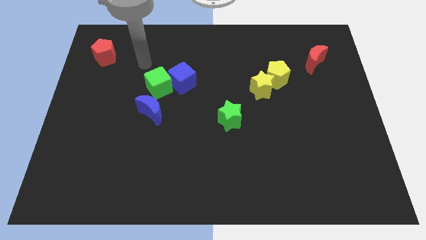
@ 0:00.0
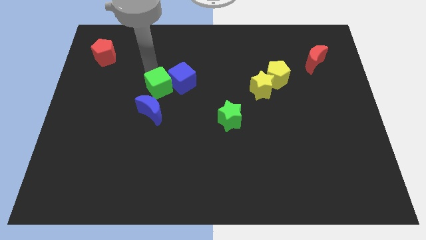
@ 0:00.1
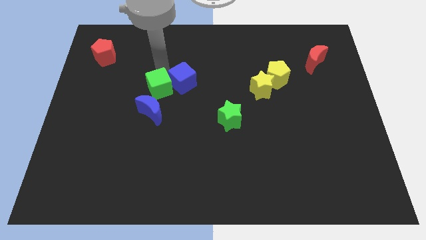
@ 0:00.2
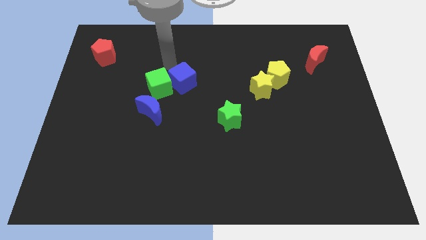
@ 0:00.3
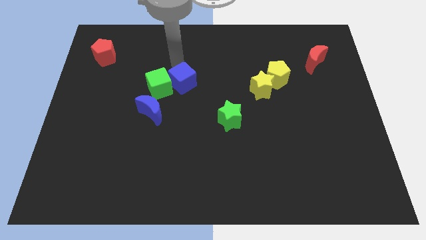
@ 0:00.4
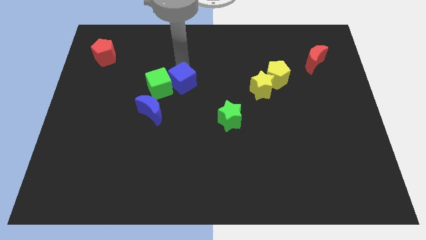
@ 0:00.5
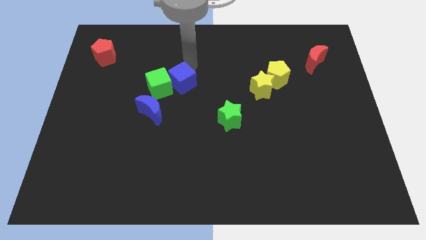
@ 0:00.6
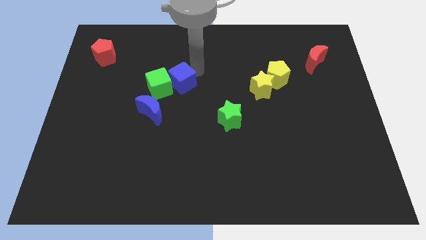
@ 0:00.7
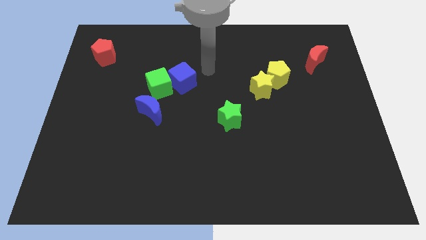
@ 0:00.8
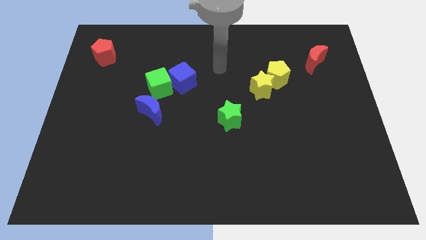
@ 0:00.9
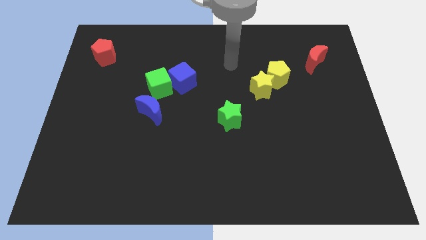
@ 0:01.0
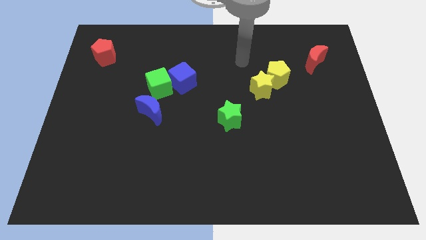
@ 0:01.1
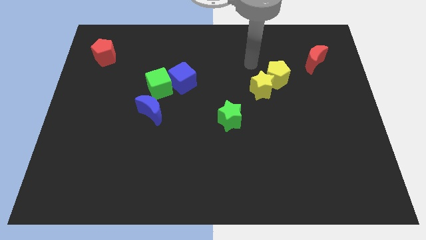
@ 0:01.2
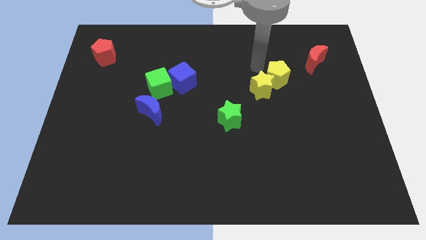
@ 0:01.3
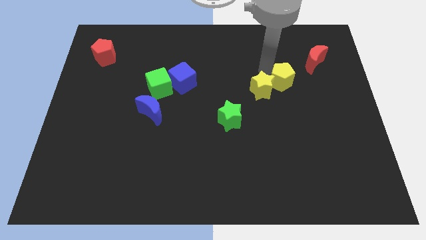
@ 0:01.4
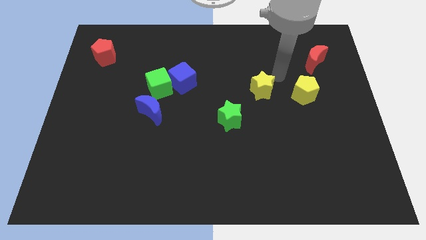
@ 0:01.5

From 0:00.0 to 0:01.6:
move the yellow star away from the yellow pentagon

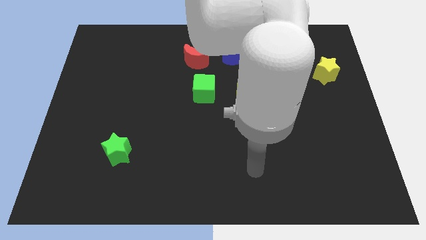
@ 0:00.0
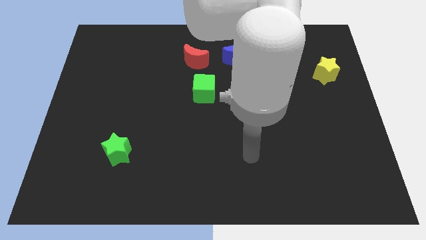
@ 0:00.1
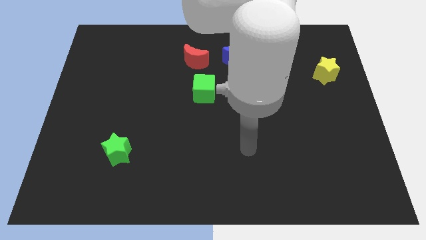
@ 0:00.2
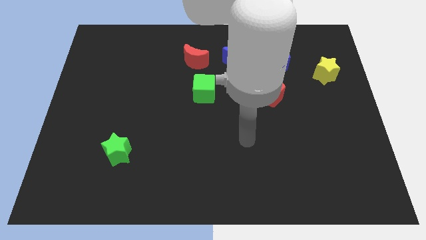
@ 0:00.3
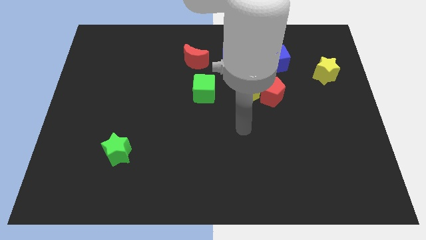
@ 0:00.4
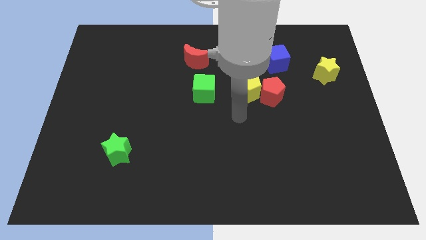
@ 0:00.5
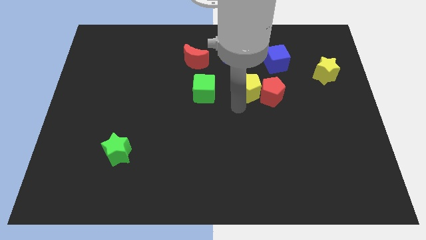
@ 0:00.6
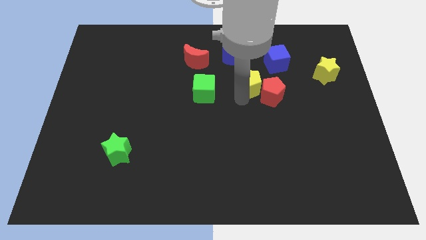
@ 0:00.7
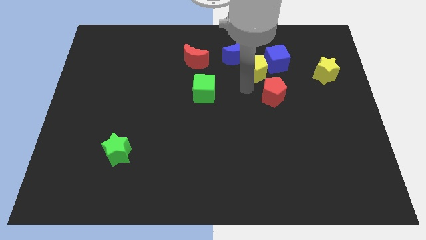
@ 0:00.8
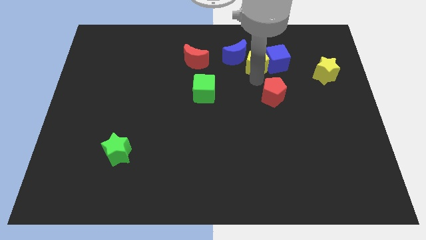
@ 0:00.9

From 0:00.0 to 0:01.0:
pull the red pentagon apart from the yellow pentagon

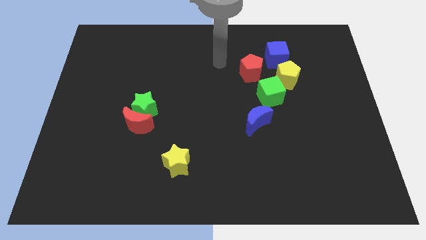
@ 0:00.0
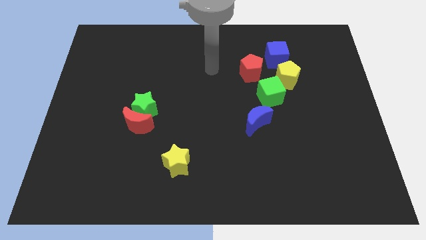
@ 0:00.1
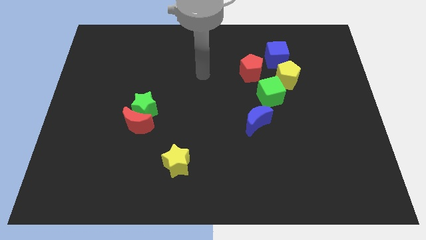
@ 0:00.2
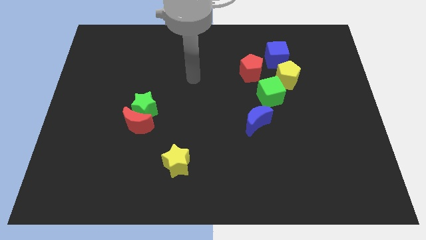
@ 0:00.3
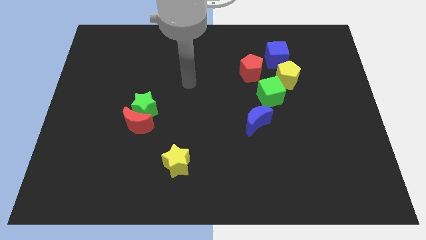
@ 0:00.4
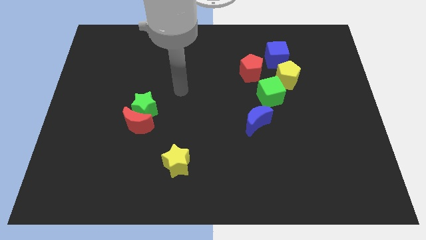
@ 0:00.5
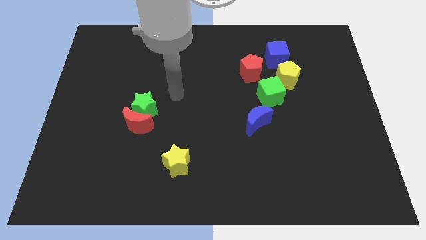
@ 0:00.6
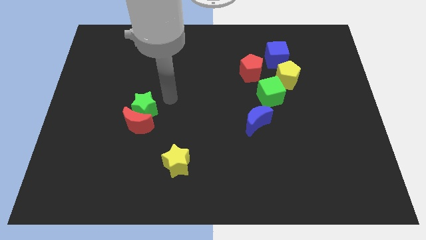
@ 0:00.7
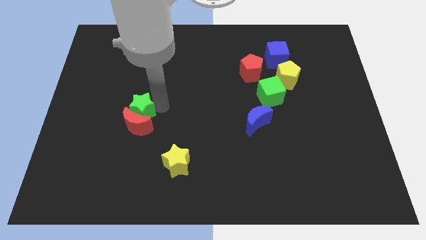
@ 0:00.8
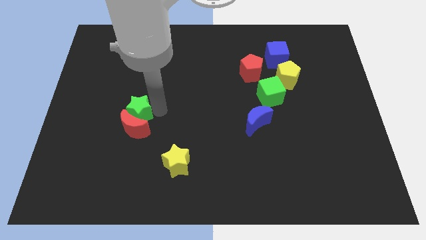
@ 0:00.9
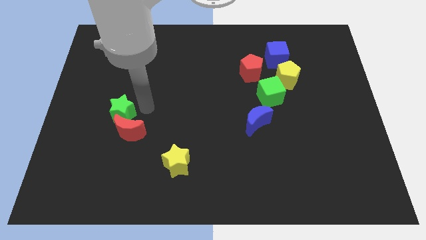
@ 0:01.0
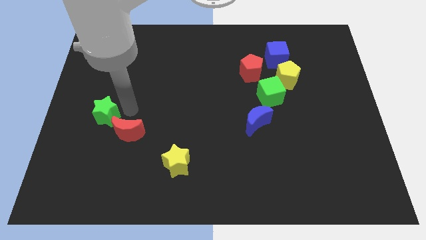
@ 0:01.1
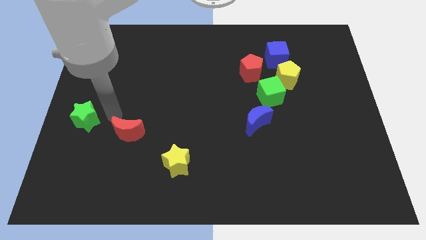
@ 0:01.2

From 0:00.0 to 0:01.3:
move the red moon away from the green star

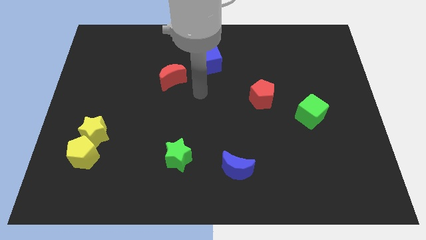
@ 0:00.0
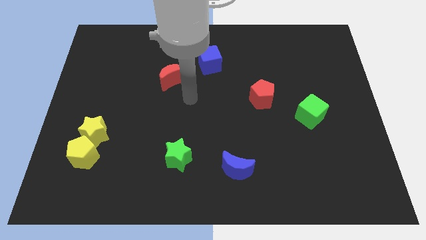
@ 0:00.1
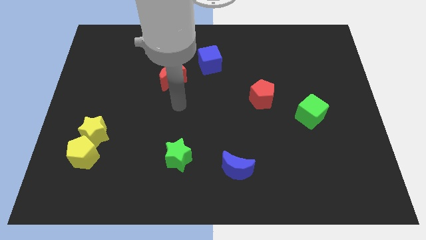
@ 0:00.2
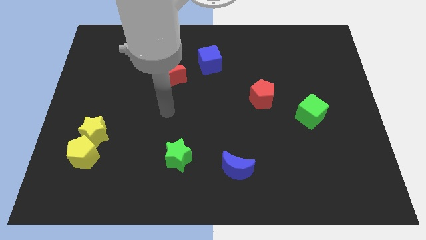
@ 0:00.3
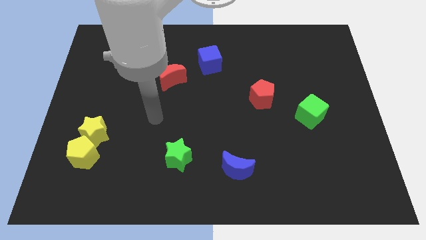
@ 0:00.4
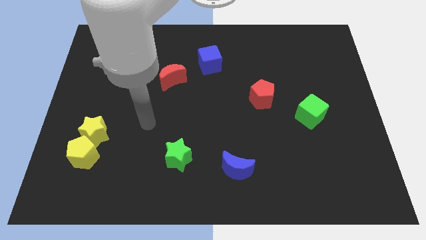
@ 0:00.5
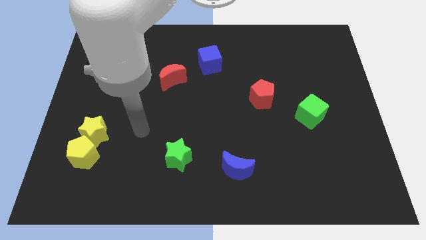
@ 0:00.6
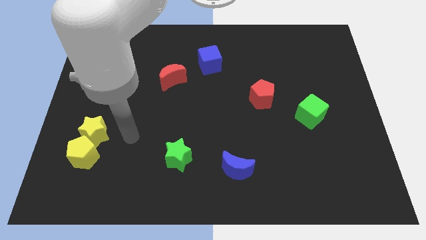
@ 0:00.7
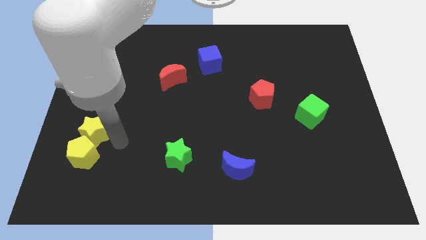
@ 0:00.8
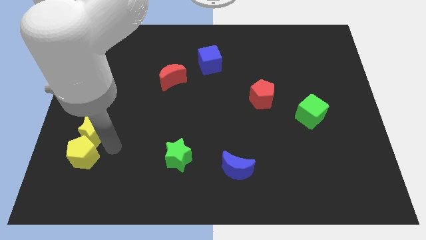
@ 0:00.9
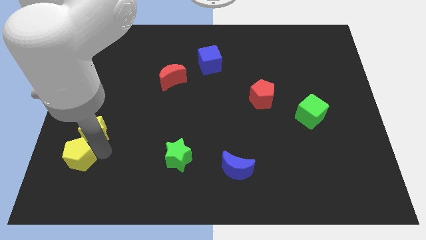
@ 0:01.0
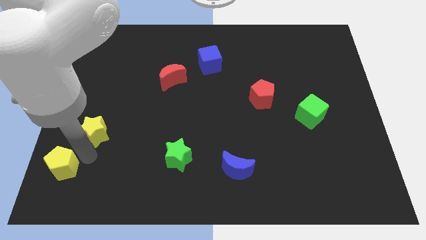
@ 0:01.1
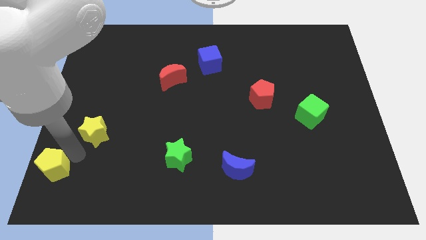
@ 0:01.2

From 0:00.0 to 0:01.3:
pull the yellow star apart from the yellow pentagon

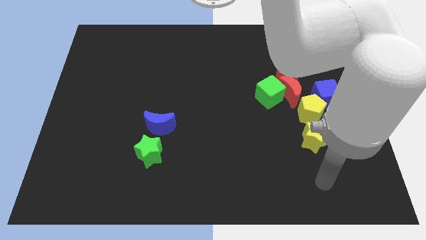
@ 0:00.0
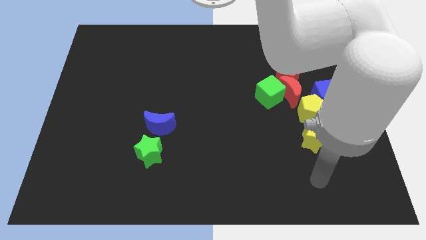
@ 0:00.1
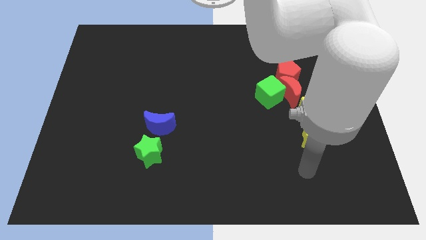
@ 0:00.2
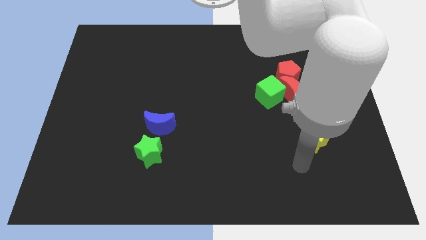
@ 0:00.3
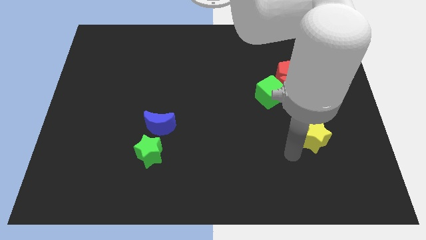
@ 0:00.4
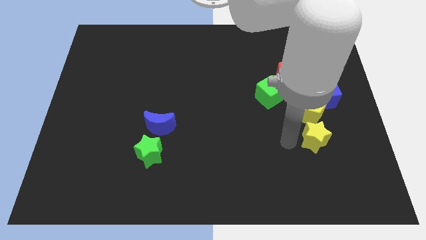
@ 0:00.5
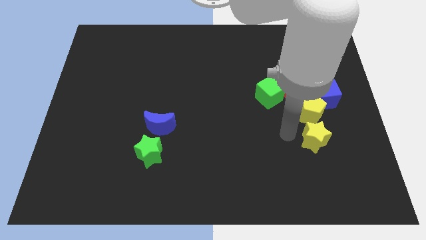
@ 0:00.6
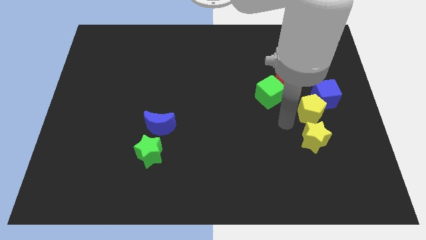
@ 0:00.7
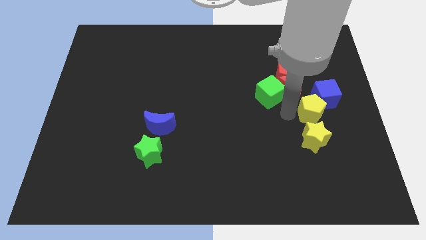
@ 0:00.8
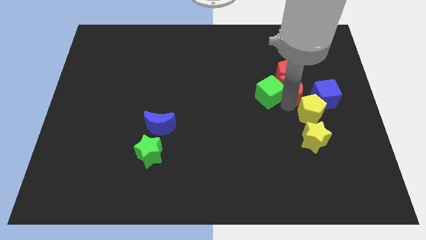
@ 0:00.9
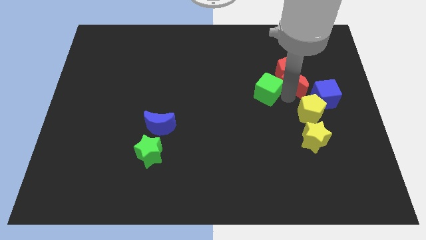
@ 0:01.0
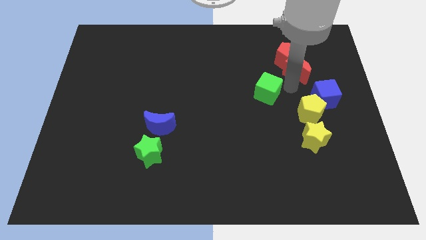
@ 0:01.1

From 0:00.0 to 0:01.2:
separate the green cube from the red moon and red pentagon

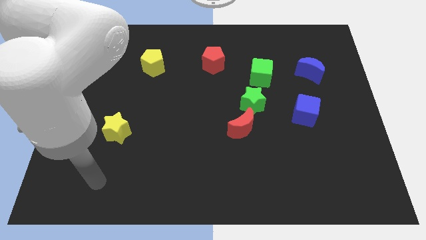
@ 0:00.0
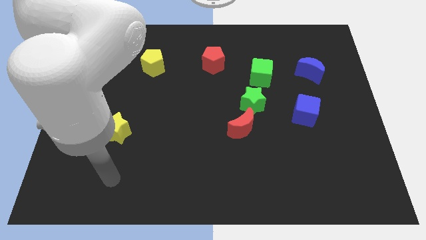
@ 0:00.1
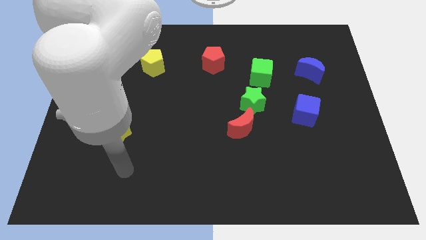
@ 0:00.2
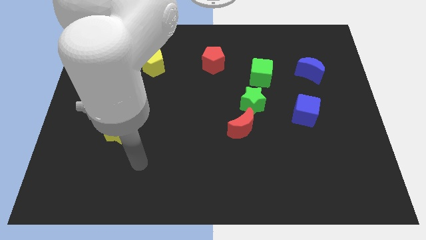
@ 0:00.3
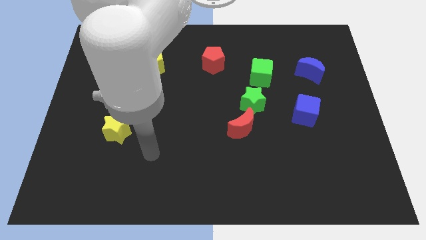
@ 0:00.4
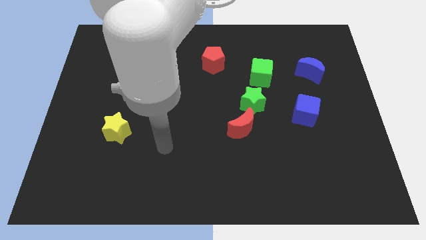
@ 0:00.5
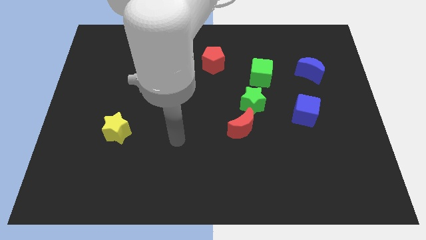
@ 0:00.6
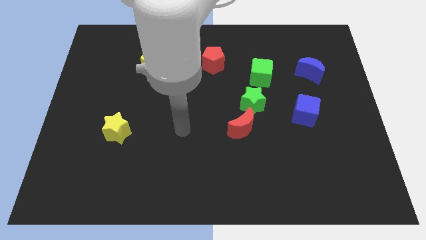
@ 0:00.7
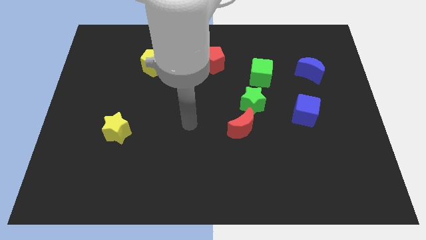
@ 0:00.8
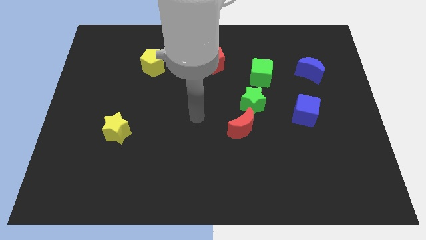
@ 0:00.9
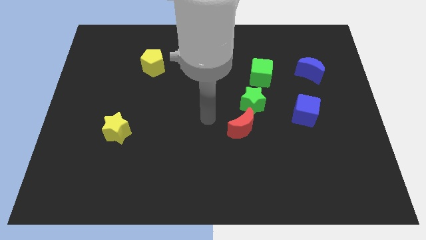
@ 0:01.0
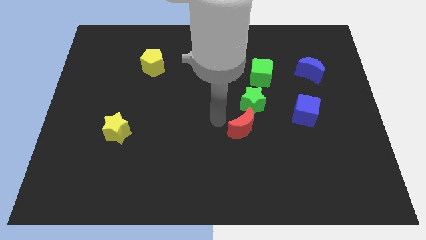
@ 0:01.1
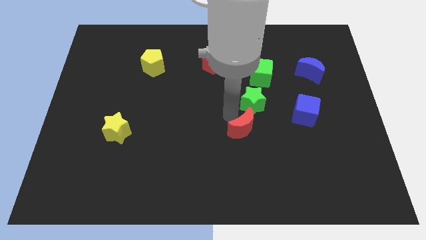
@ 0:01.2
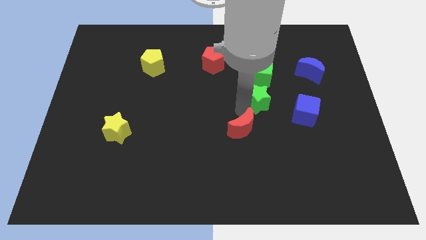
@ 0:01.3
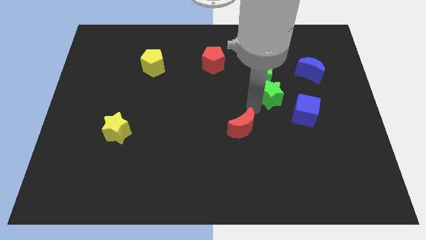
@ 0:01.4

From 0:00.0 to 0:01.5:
pull the red moon apart from the green star

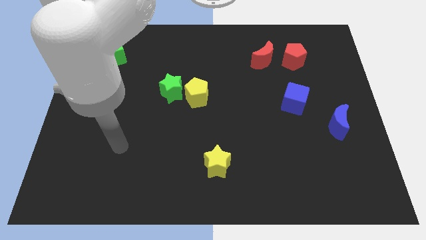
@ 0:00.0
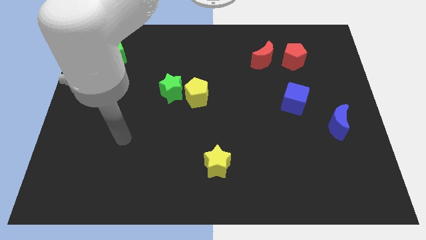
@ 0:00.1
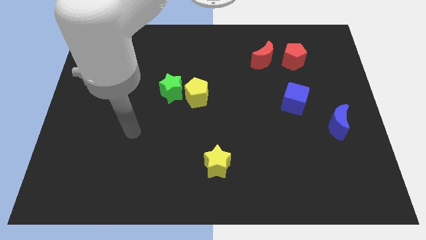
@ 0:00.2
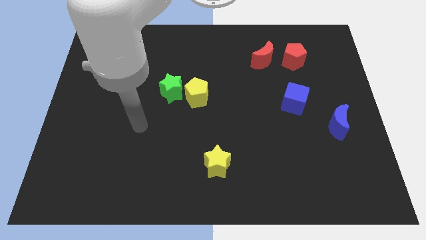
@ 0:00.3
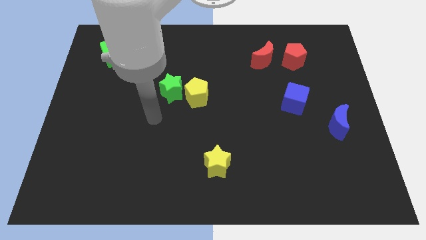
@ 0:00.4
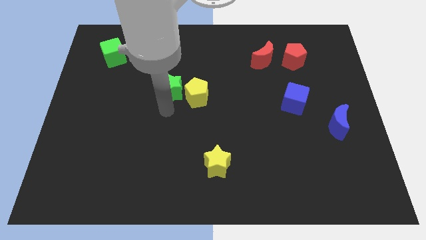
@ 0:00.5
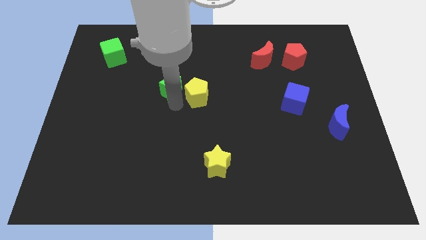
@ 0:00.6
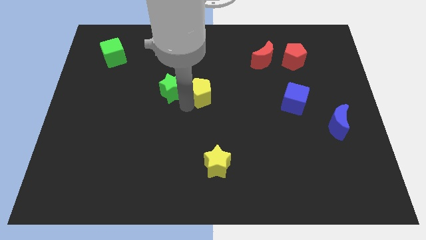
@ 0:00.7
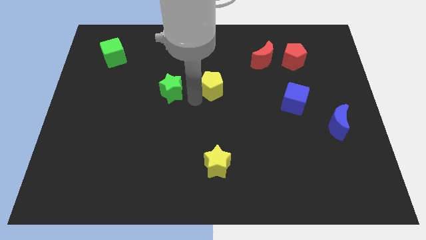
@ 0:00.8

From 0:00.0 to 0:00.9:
pull the green star apart from the yellow pentagon

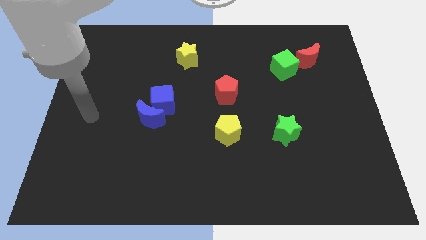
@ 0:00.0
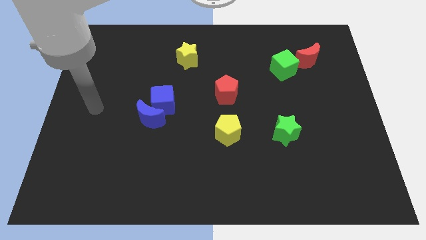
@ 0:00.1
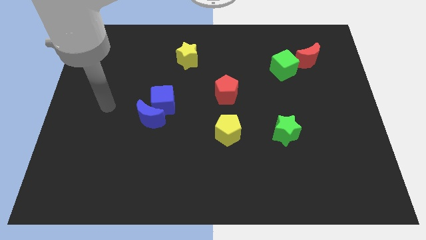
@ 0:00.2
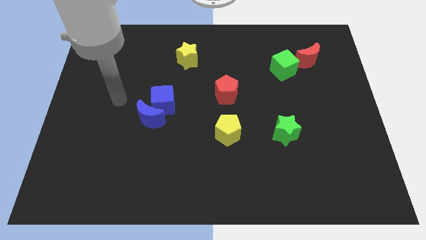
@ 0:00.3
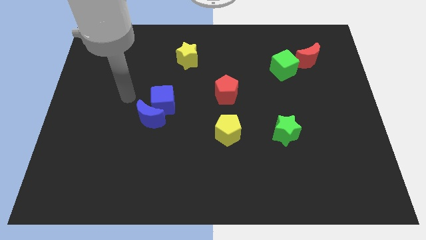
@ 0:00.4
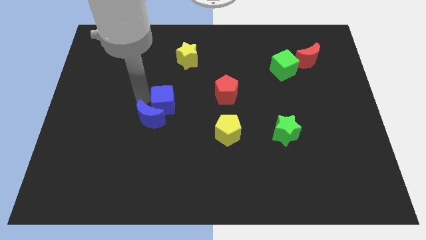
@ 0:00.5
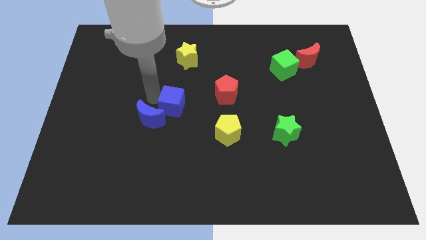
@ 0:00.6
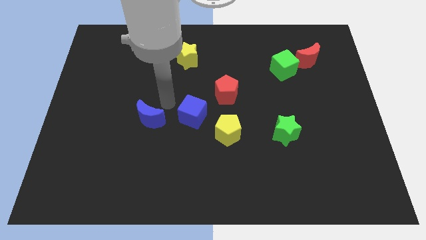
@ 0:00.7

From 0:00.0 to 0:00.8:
separate the blue moon from the blue cube
